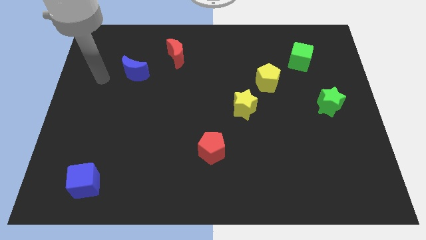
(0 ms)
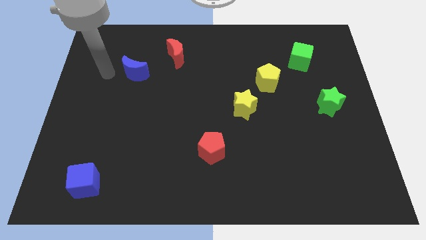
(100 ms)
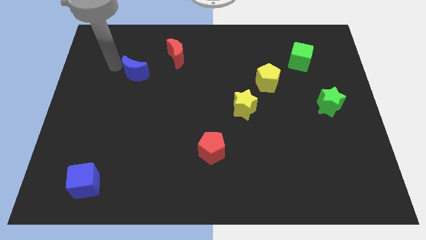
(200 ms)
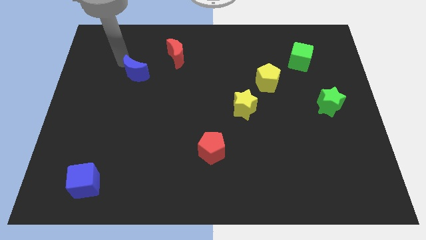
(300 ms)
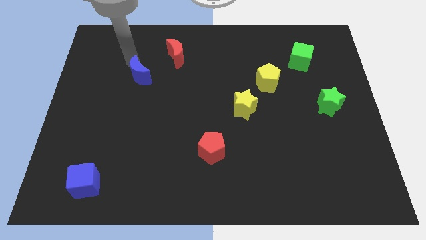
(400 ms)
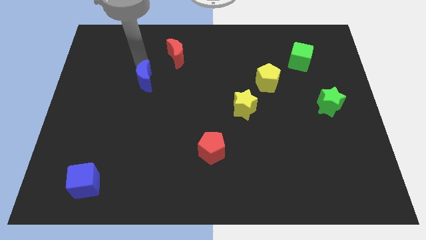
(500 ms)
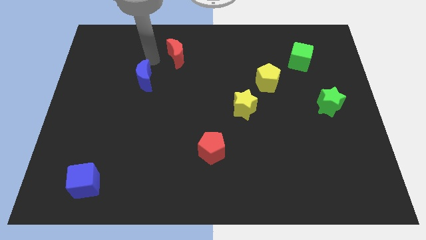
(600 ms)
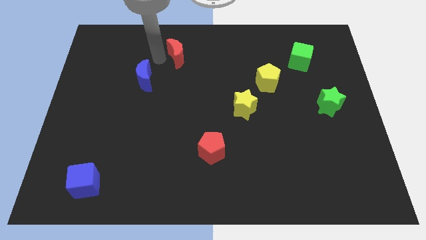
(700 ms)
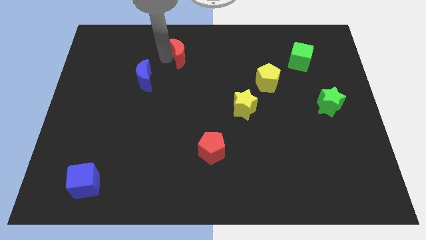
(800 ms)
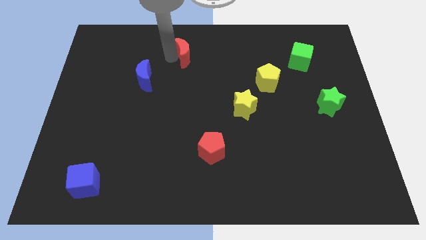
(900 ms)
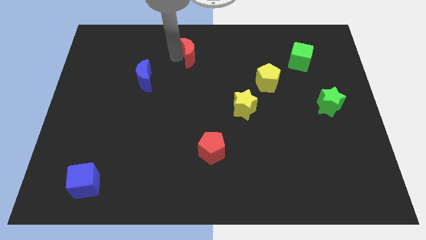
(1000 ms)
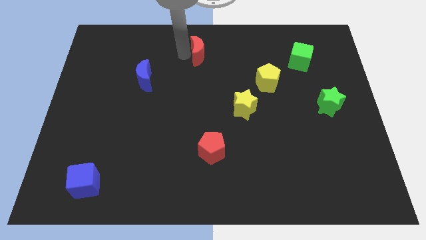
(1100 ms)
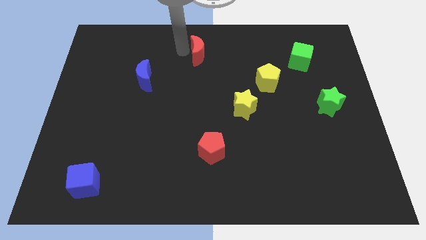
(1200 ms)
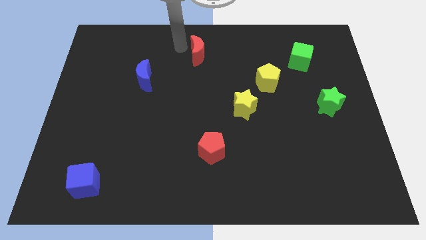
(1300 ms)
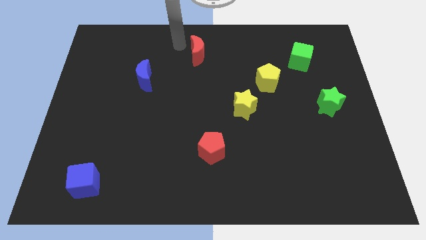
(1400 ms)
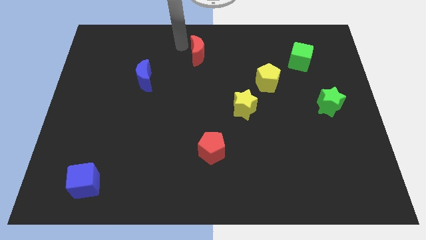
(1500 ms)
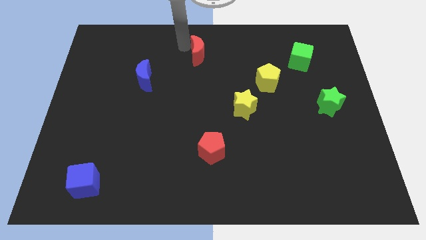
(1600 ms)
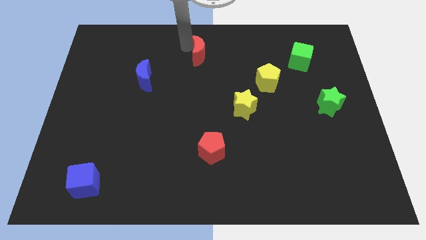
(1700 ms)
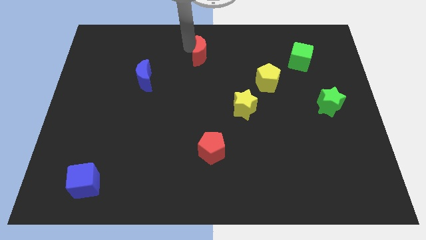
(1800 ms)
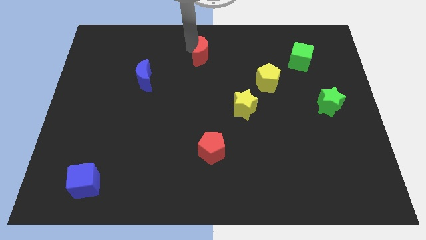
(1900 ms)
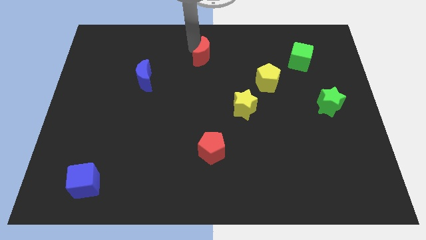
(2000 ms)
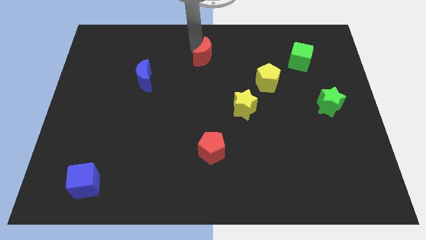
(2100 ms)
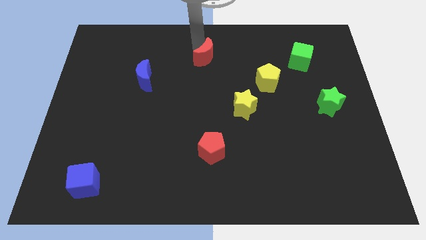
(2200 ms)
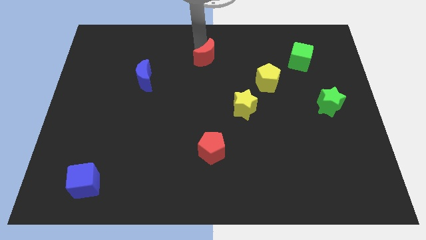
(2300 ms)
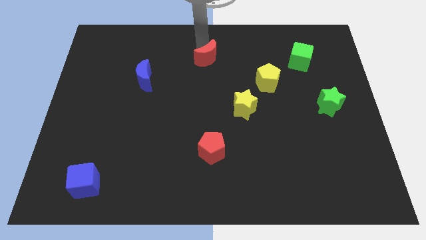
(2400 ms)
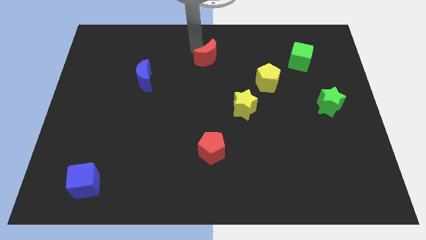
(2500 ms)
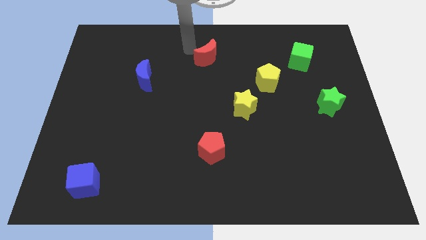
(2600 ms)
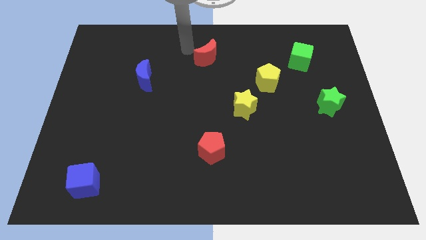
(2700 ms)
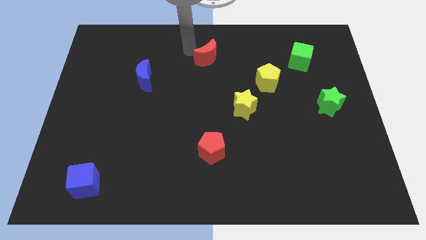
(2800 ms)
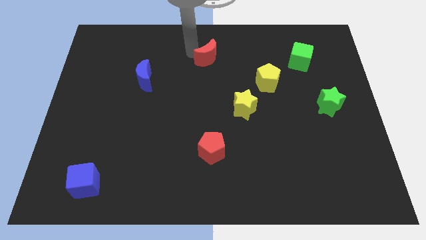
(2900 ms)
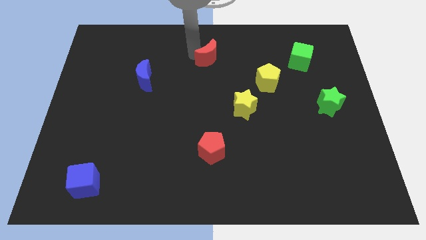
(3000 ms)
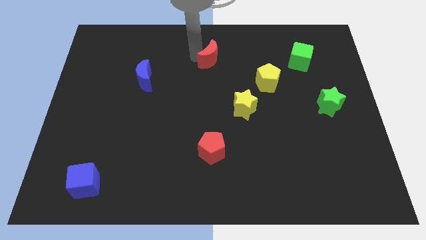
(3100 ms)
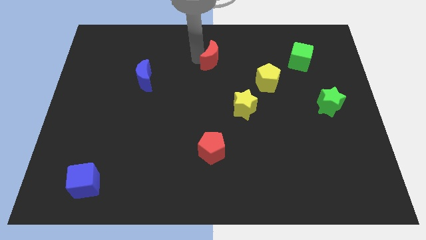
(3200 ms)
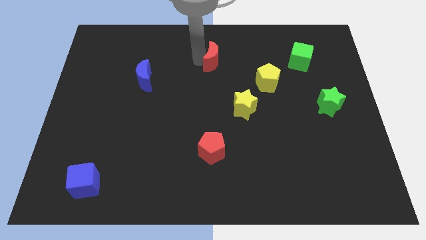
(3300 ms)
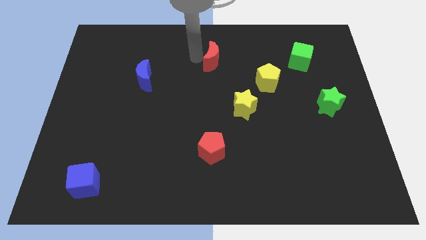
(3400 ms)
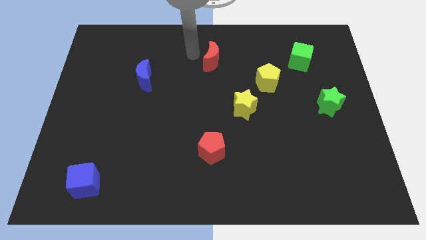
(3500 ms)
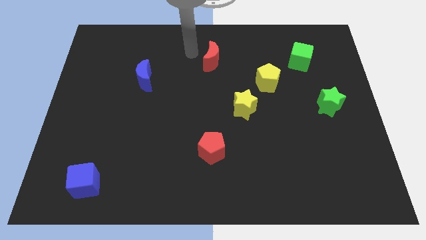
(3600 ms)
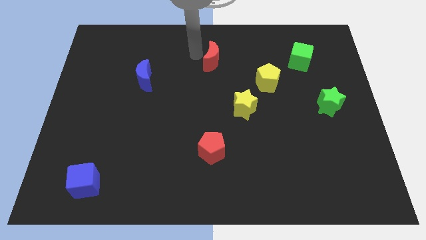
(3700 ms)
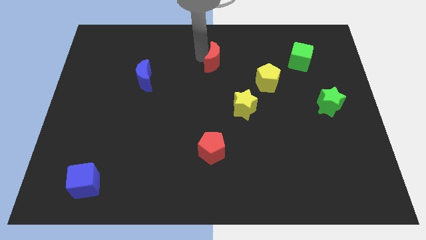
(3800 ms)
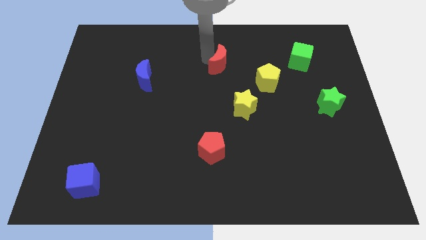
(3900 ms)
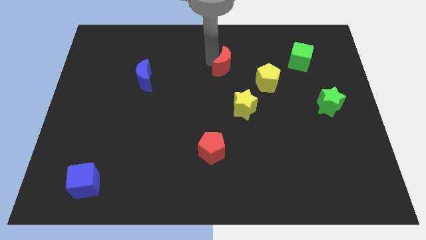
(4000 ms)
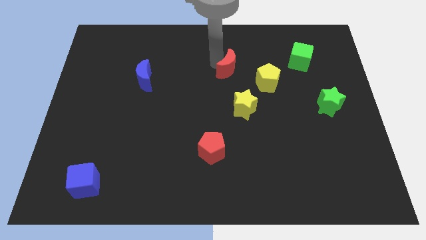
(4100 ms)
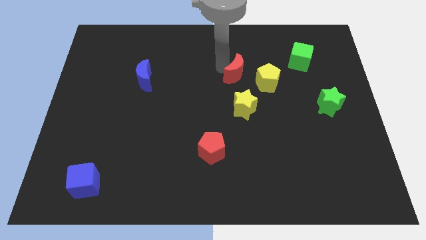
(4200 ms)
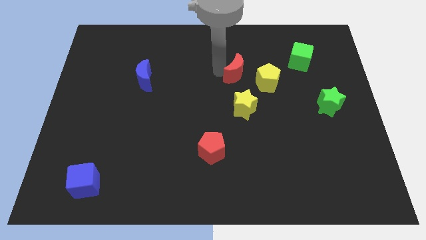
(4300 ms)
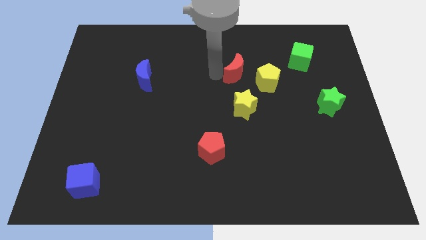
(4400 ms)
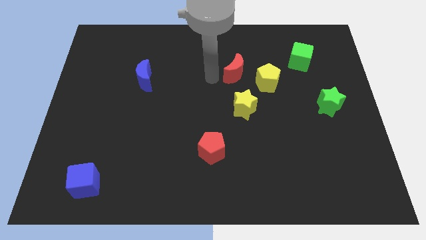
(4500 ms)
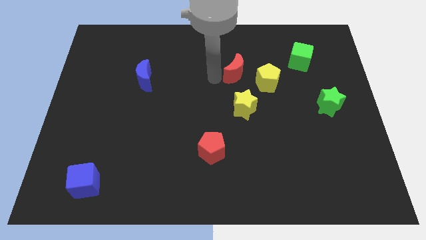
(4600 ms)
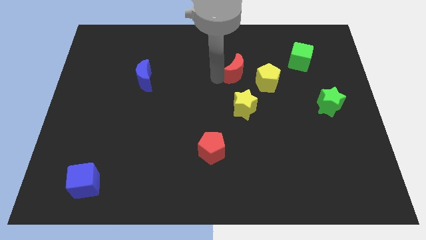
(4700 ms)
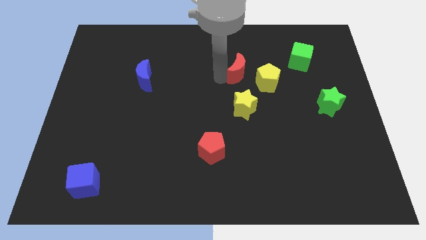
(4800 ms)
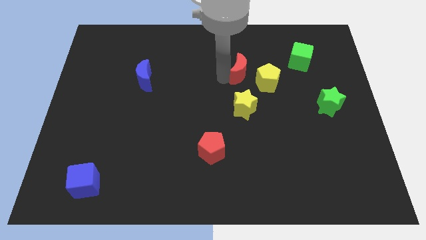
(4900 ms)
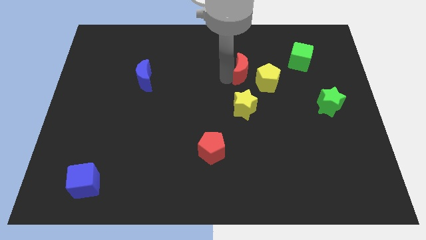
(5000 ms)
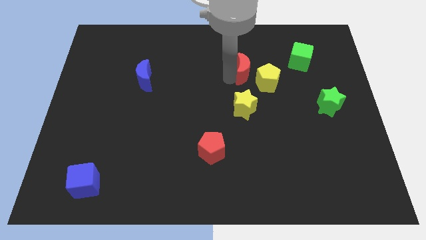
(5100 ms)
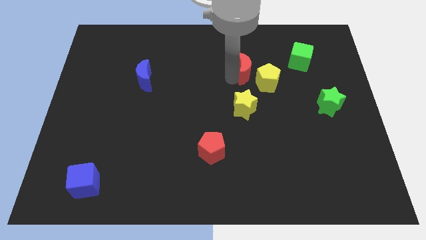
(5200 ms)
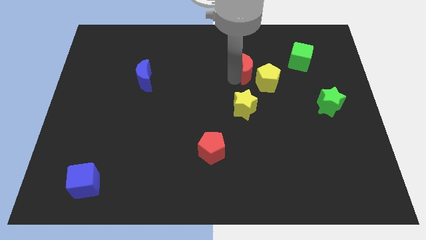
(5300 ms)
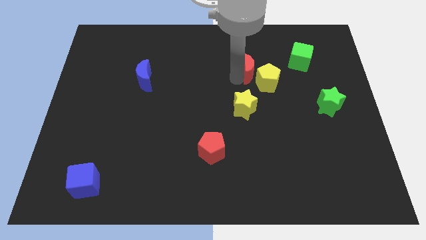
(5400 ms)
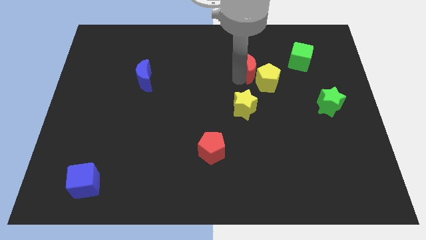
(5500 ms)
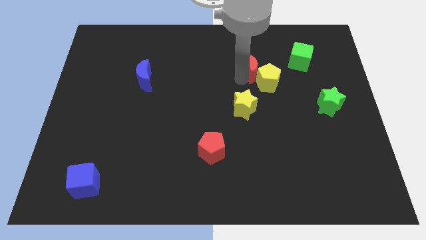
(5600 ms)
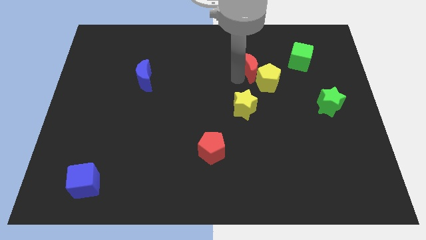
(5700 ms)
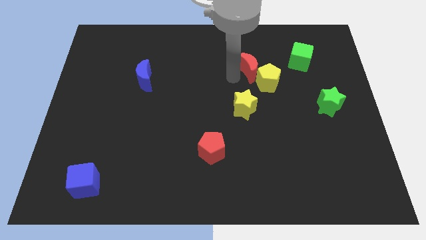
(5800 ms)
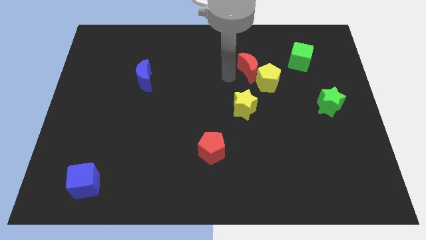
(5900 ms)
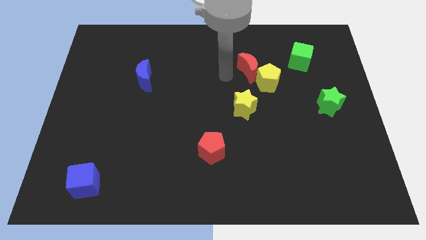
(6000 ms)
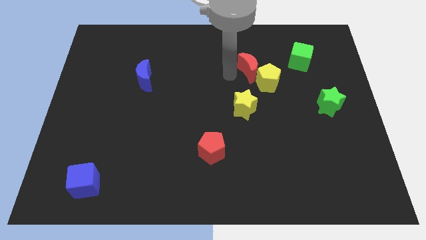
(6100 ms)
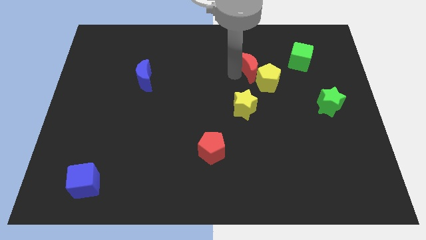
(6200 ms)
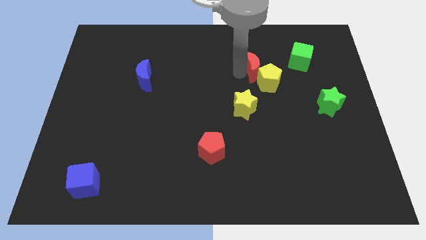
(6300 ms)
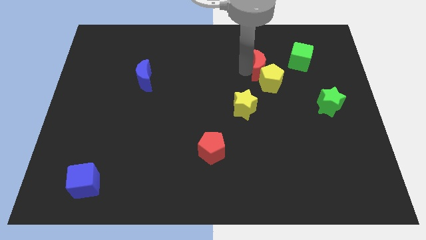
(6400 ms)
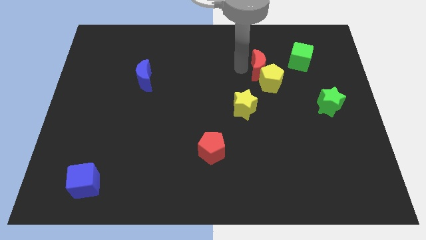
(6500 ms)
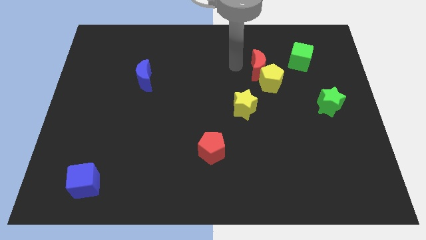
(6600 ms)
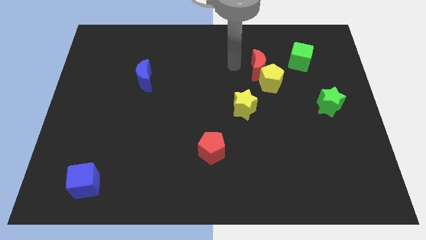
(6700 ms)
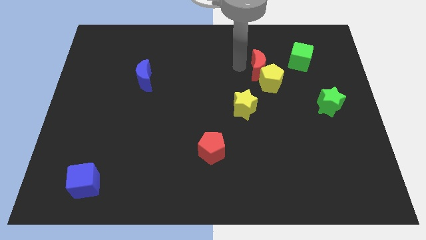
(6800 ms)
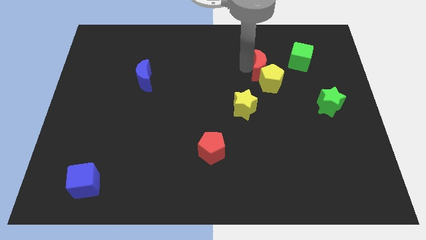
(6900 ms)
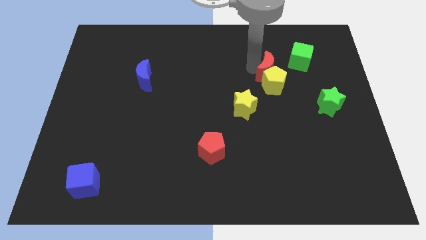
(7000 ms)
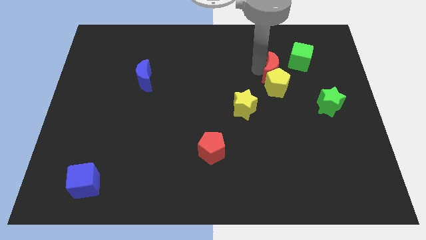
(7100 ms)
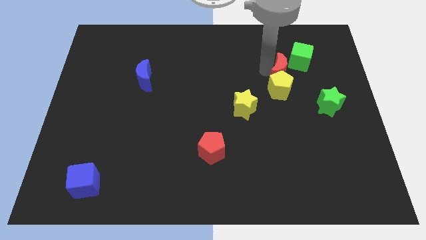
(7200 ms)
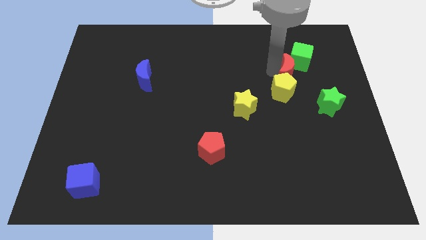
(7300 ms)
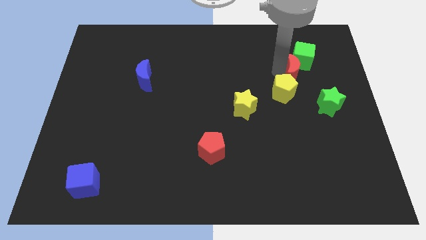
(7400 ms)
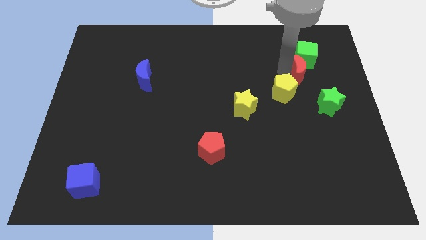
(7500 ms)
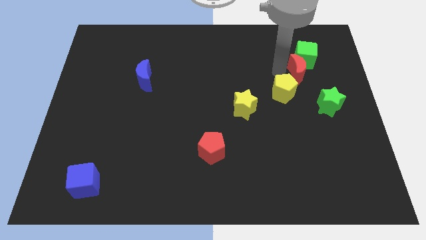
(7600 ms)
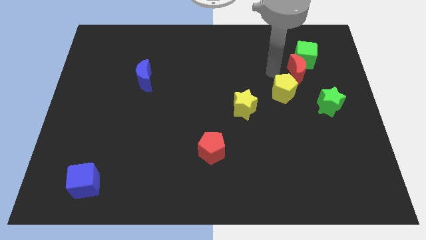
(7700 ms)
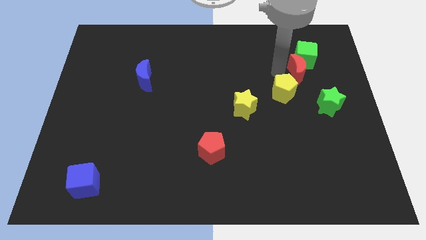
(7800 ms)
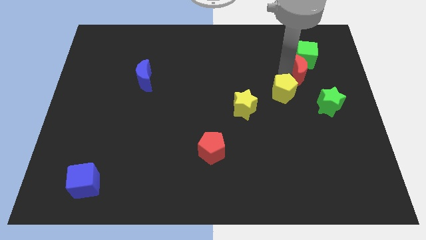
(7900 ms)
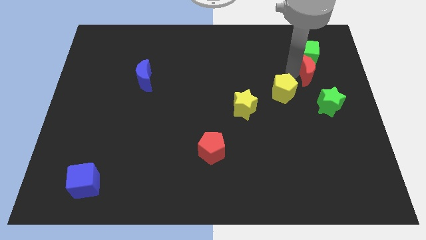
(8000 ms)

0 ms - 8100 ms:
push the red moon above the green star
